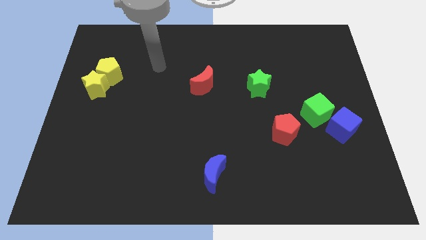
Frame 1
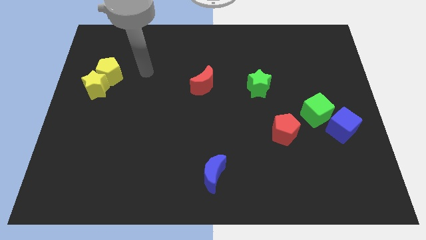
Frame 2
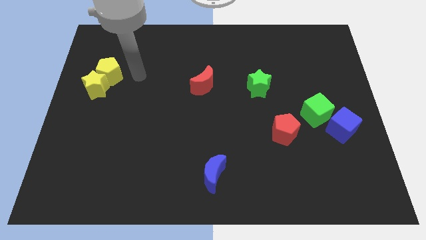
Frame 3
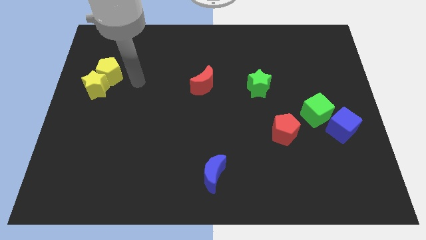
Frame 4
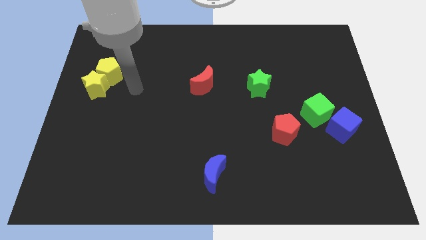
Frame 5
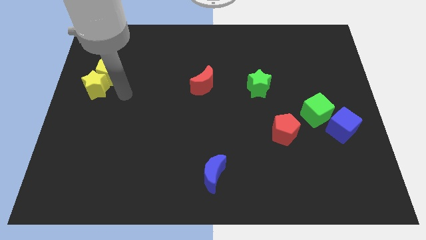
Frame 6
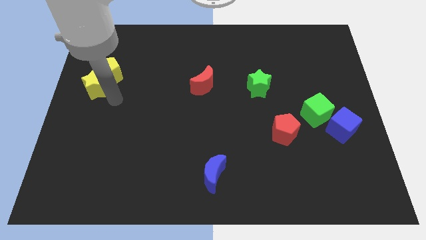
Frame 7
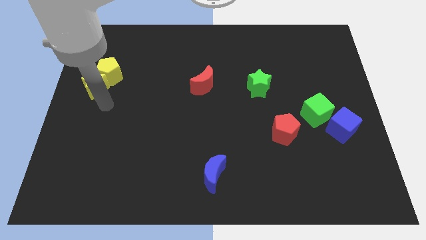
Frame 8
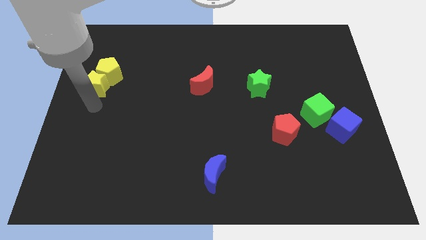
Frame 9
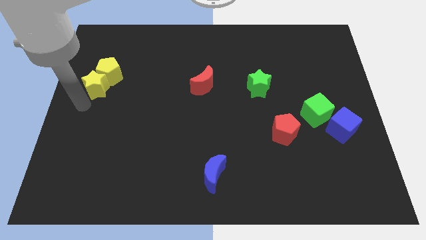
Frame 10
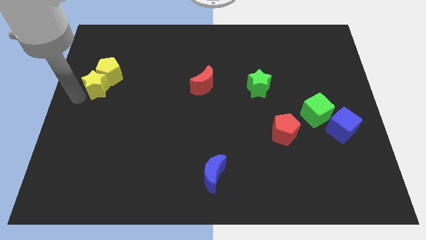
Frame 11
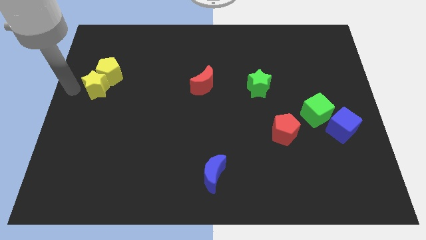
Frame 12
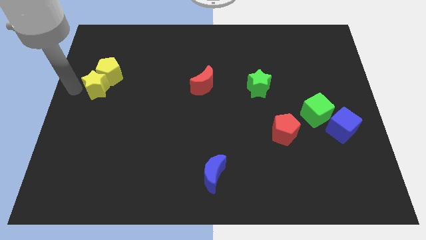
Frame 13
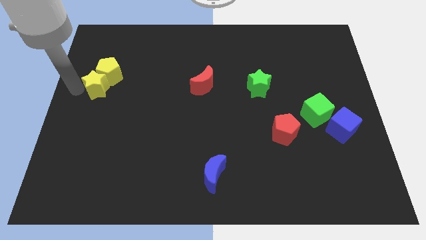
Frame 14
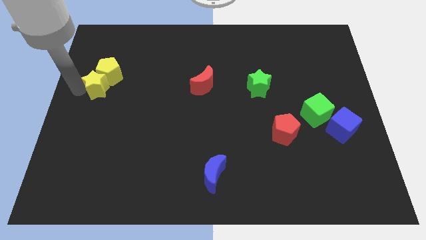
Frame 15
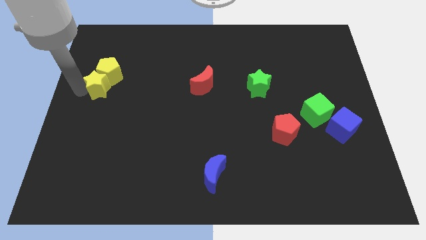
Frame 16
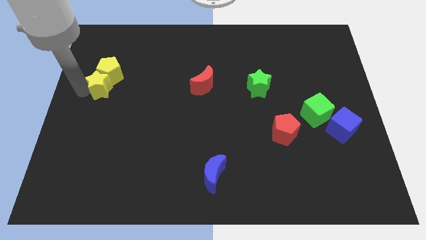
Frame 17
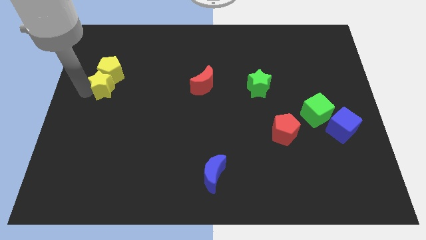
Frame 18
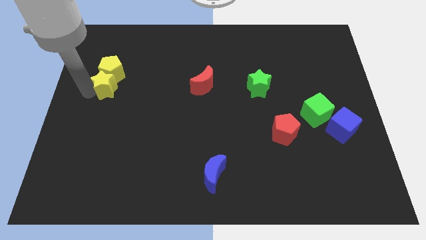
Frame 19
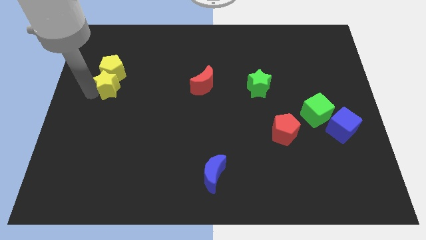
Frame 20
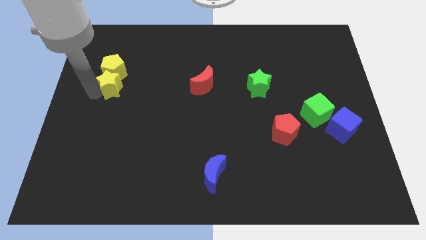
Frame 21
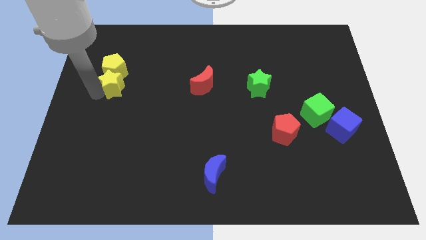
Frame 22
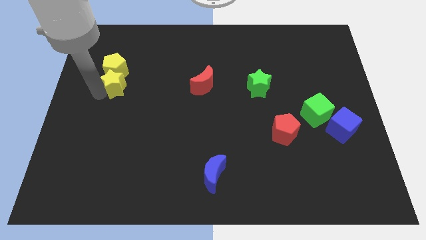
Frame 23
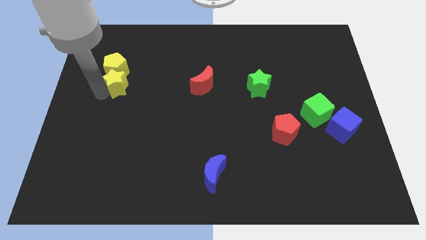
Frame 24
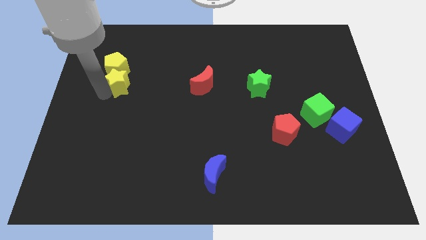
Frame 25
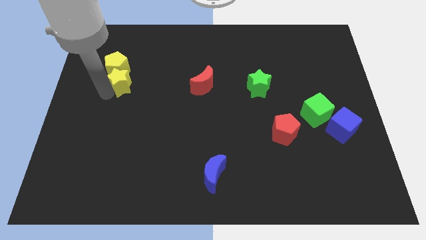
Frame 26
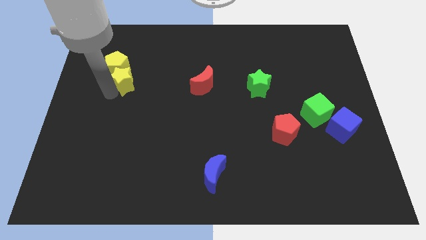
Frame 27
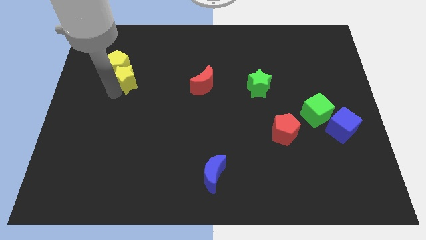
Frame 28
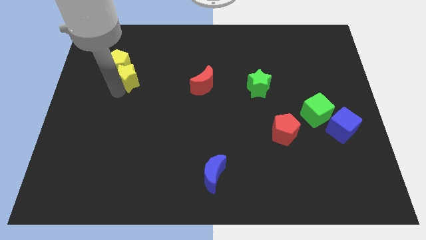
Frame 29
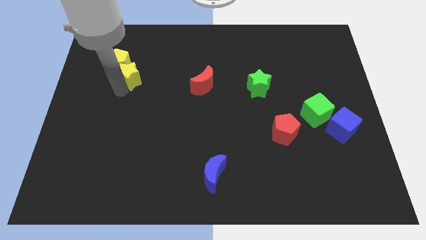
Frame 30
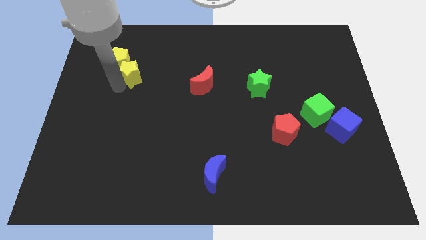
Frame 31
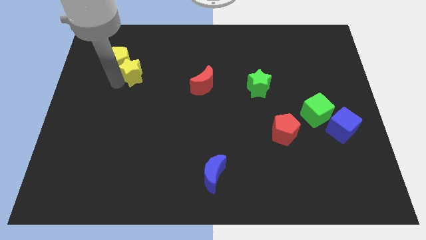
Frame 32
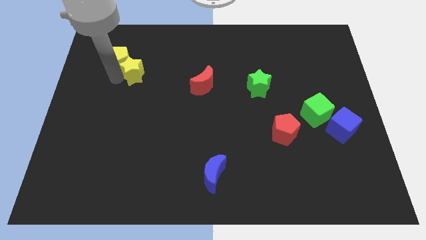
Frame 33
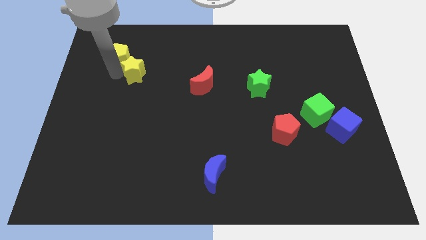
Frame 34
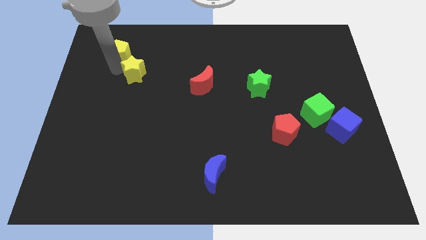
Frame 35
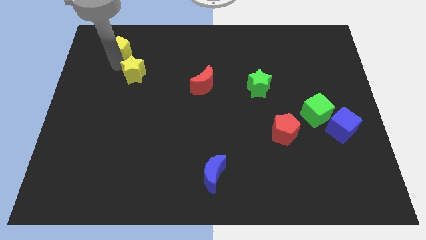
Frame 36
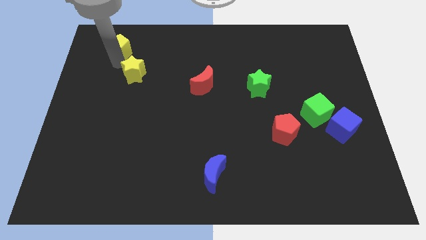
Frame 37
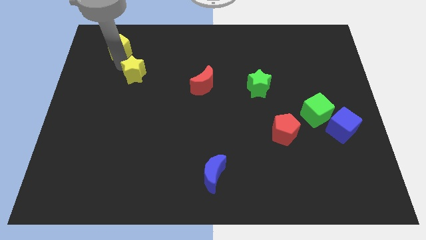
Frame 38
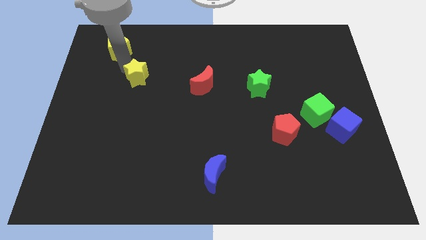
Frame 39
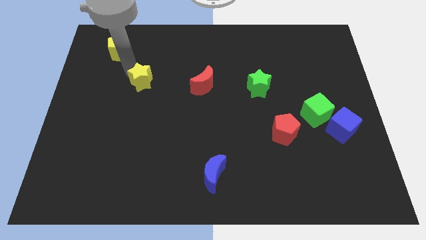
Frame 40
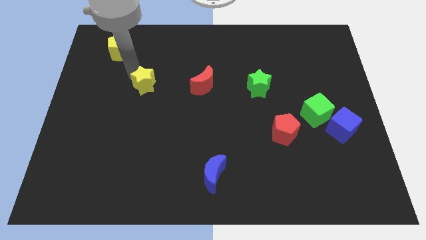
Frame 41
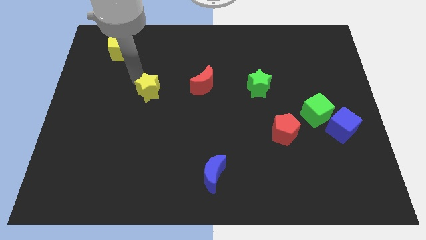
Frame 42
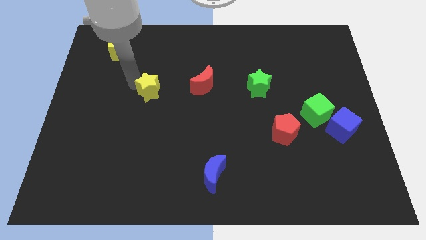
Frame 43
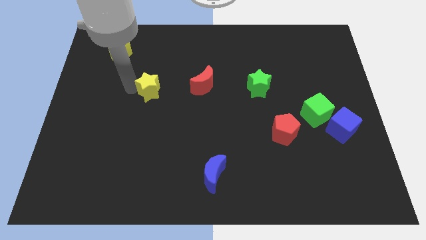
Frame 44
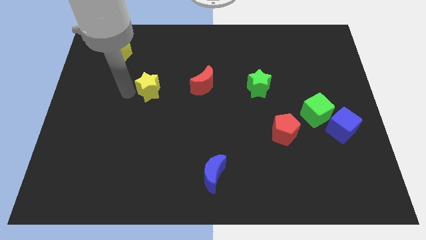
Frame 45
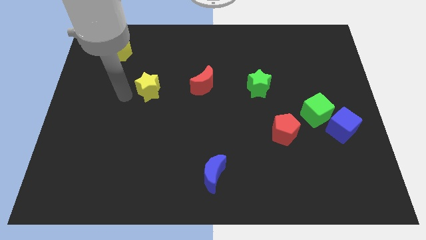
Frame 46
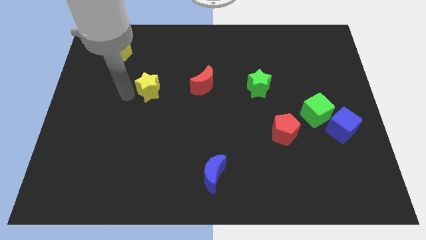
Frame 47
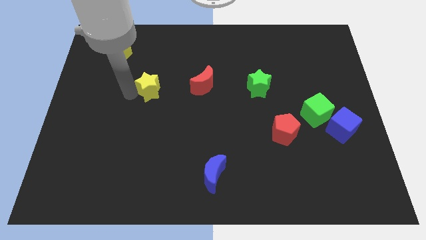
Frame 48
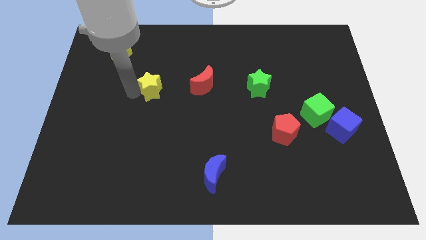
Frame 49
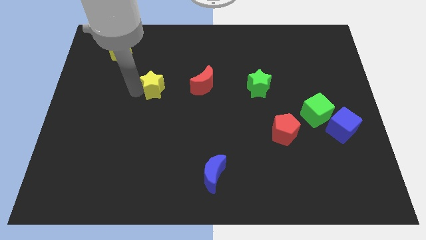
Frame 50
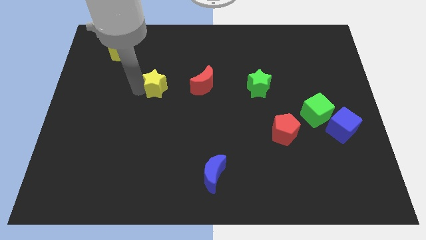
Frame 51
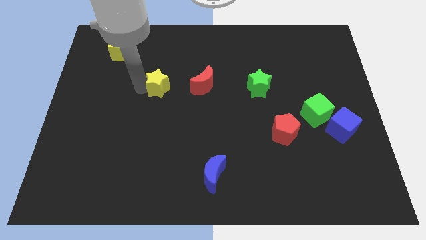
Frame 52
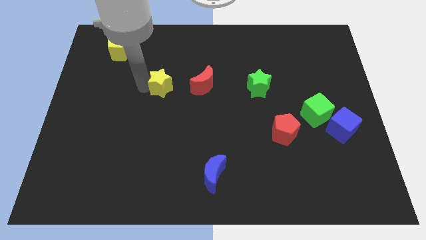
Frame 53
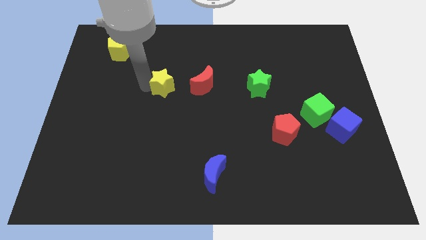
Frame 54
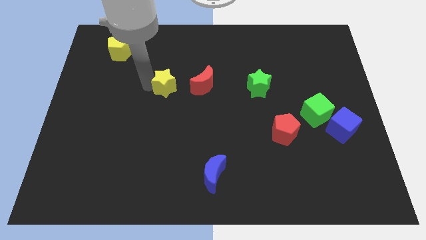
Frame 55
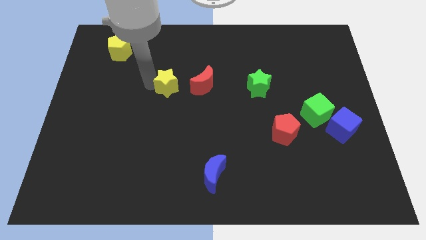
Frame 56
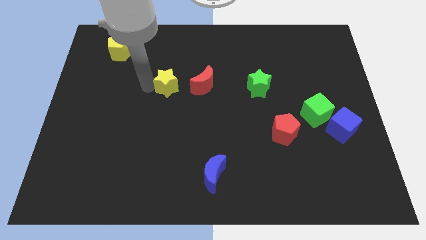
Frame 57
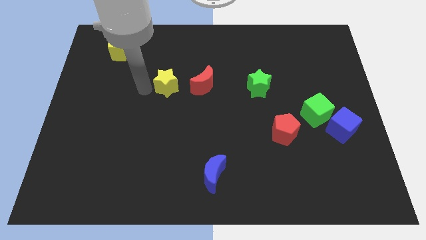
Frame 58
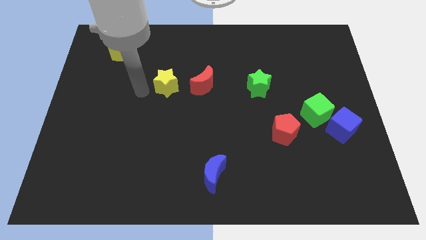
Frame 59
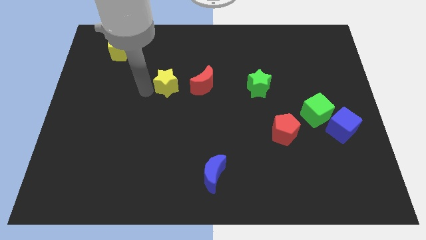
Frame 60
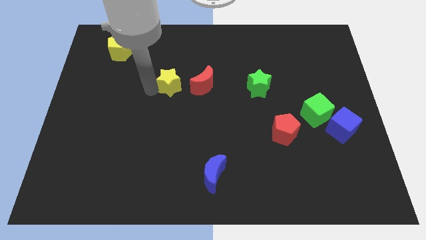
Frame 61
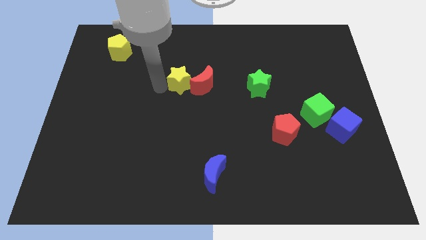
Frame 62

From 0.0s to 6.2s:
put the yellow star next to the red moon

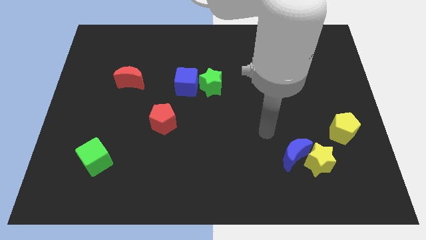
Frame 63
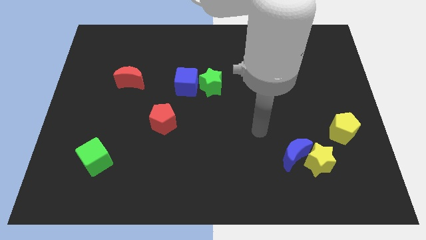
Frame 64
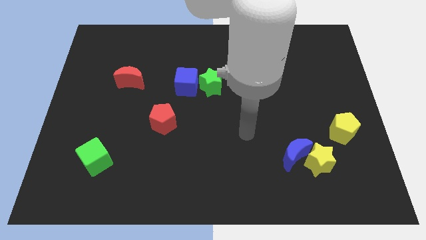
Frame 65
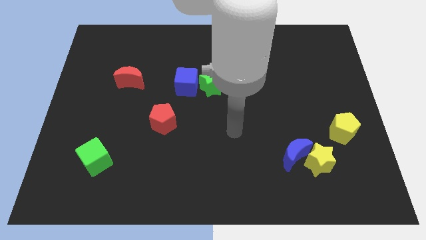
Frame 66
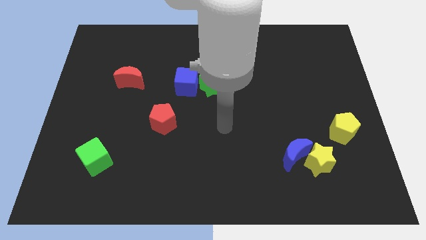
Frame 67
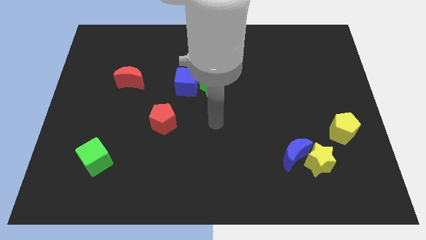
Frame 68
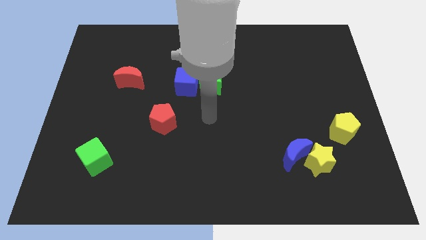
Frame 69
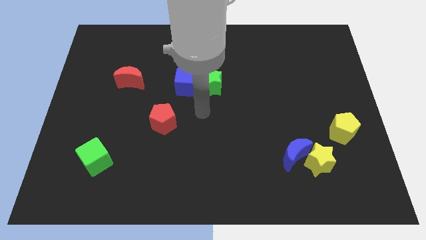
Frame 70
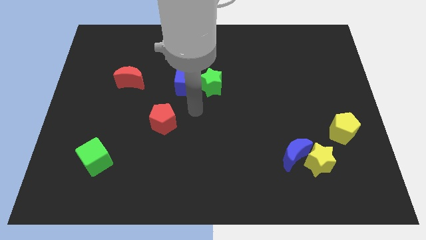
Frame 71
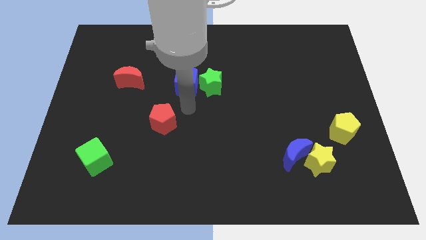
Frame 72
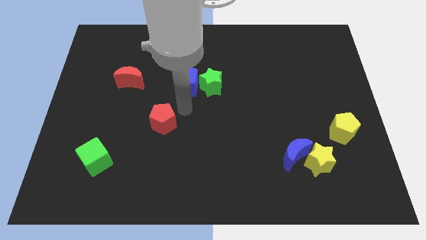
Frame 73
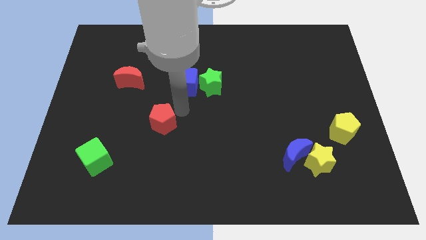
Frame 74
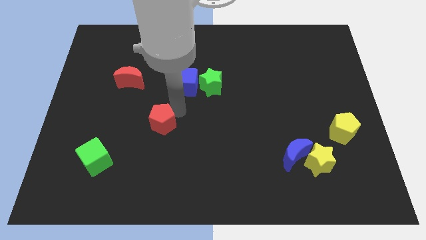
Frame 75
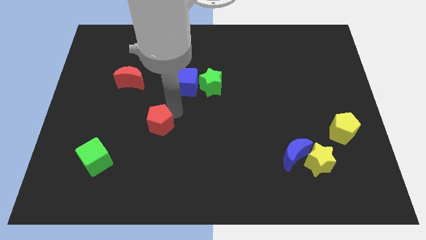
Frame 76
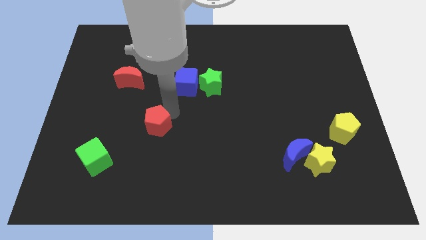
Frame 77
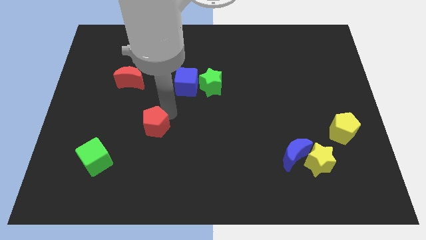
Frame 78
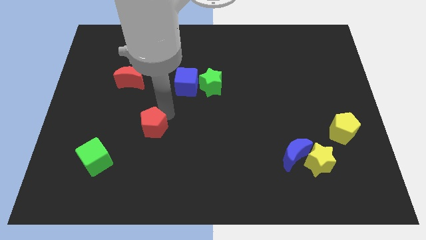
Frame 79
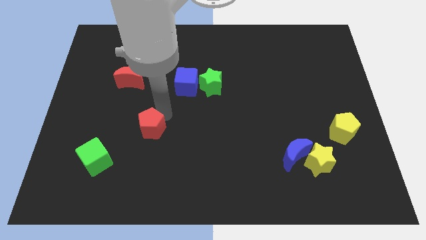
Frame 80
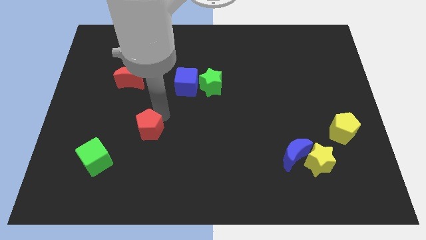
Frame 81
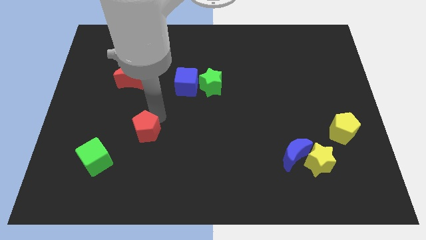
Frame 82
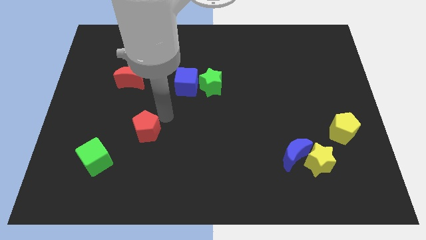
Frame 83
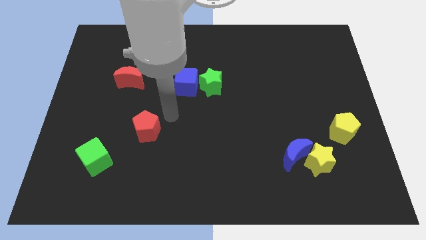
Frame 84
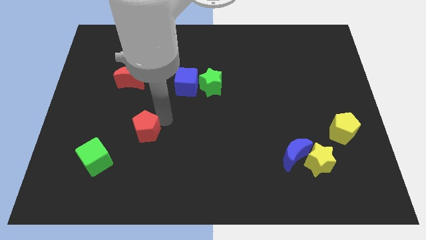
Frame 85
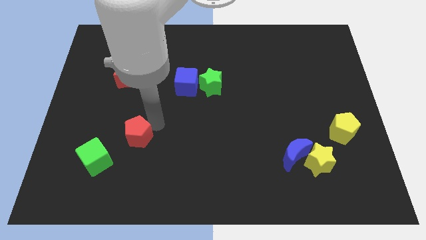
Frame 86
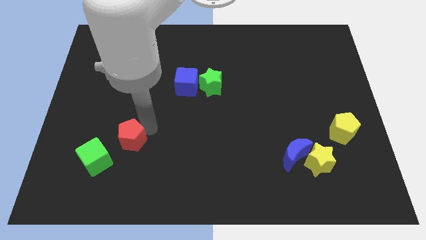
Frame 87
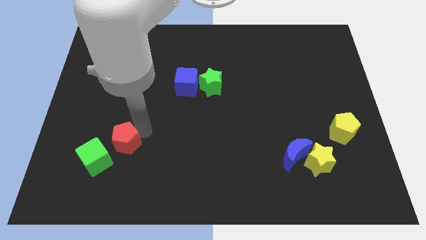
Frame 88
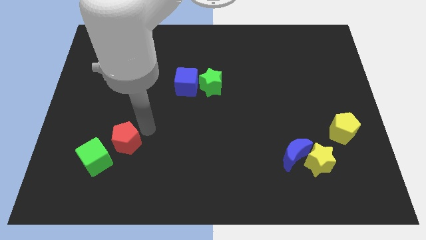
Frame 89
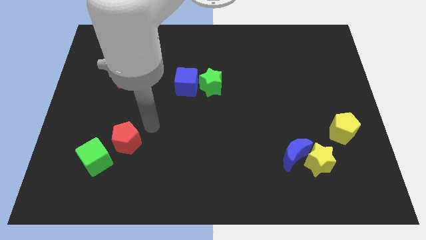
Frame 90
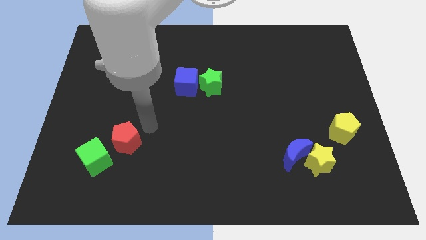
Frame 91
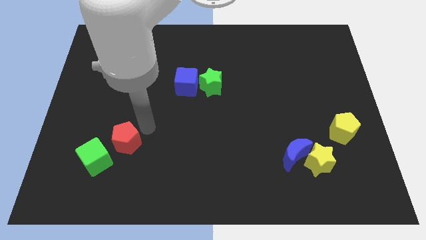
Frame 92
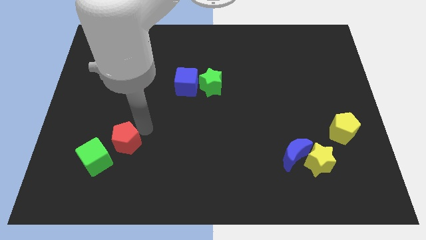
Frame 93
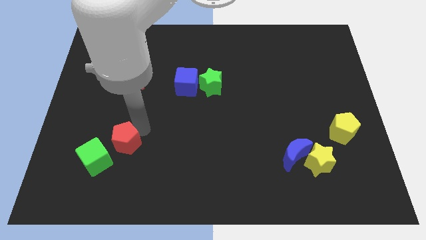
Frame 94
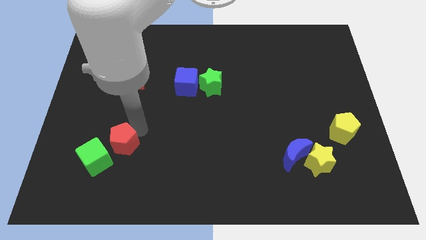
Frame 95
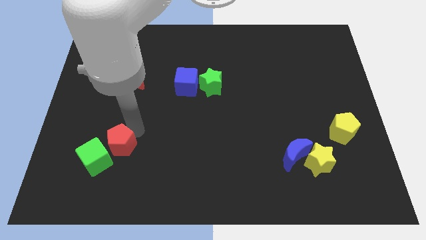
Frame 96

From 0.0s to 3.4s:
push the red pentagon to the green cube
